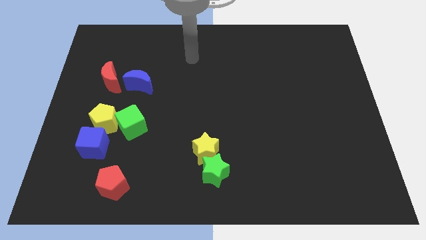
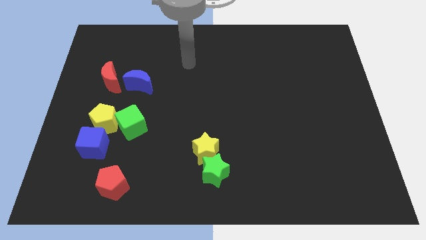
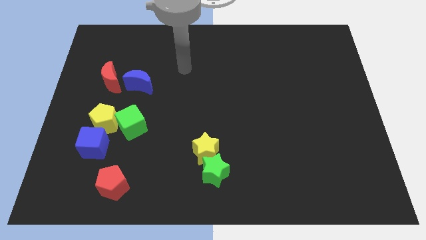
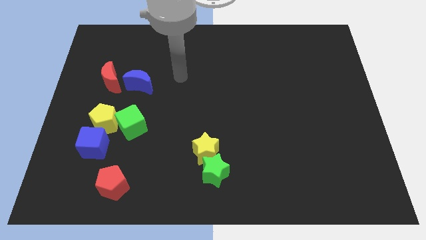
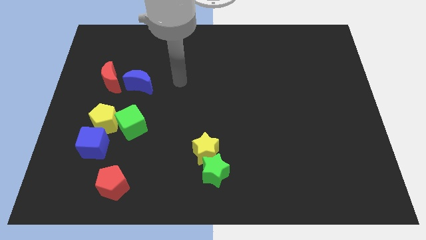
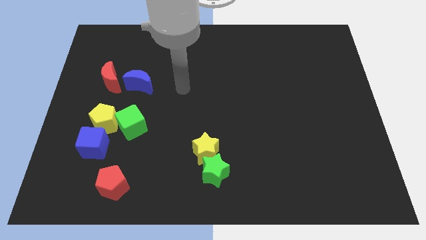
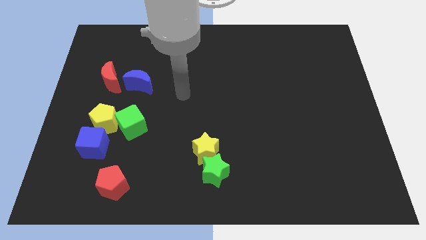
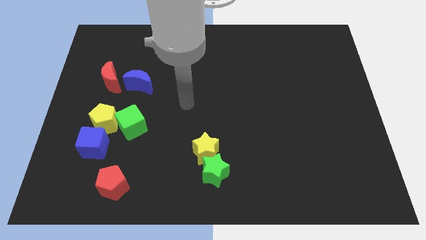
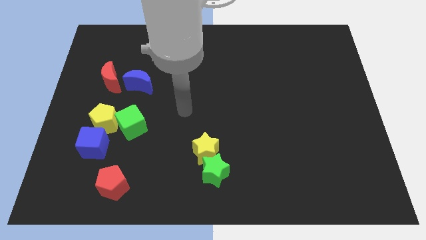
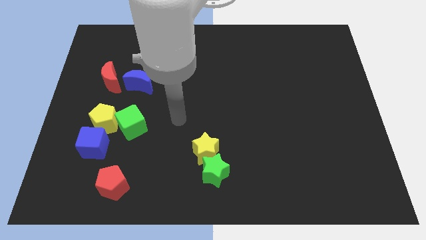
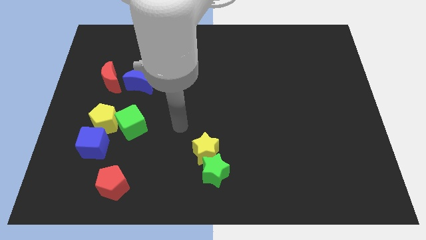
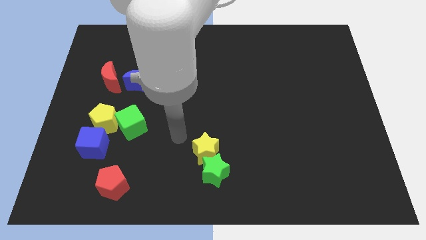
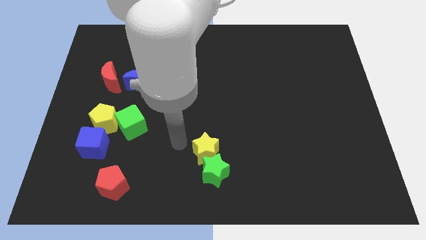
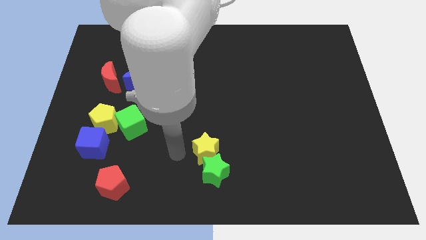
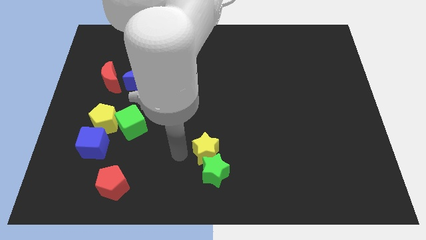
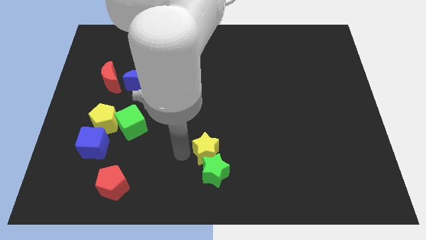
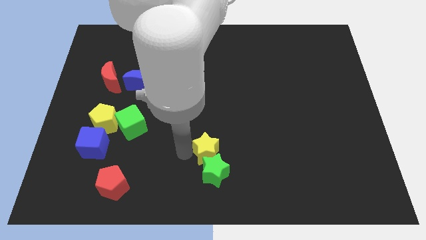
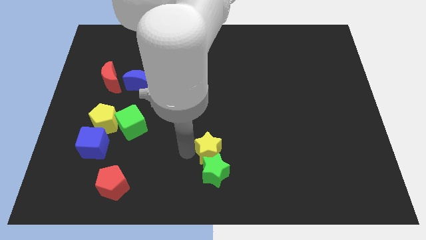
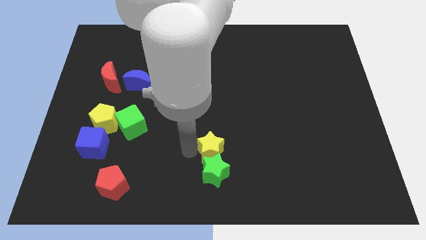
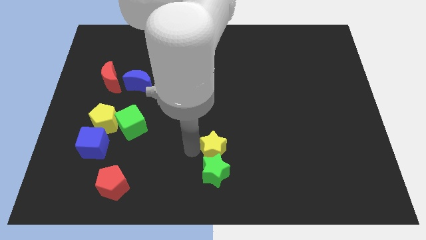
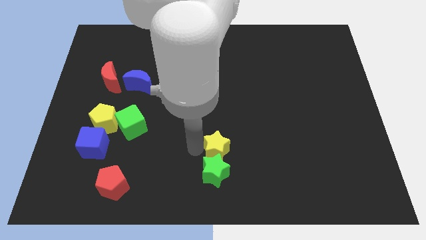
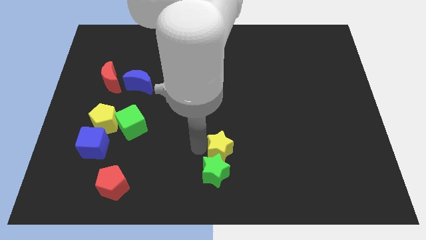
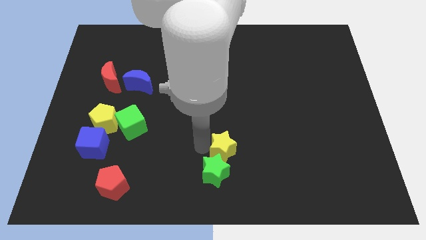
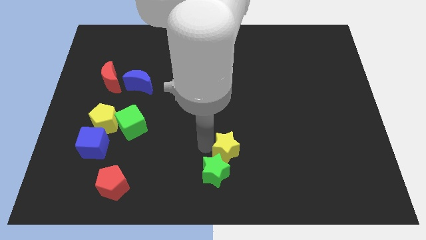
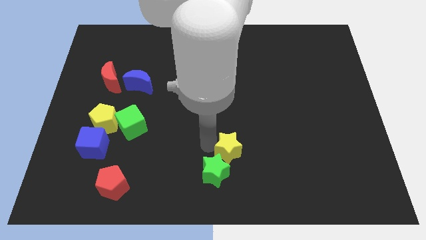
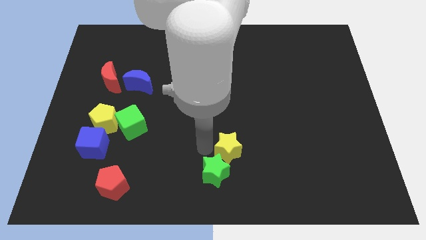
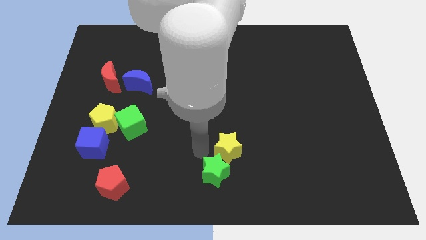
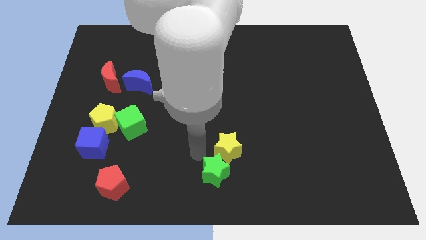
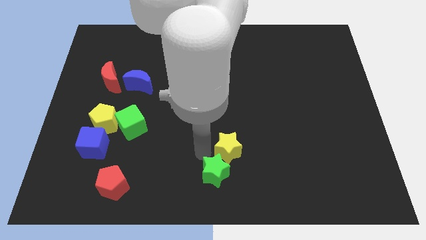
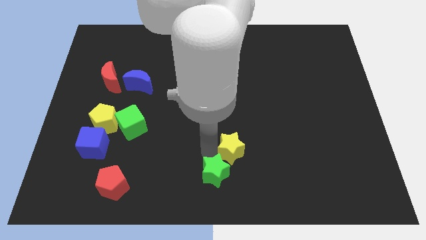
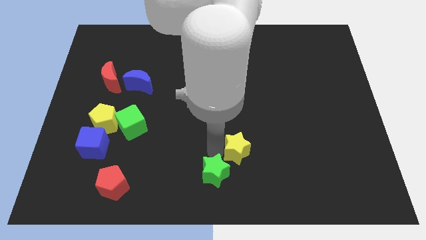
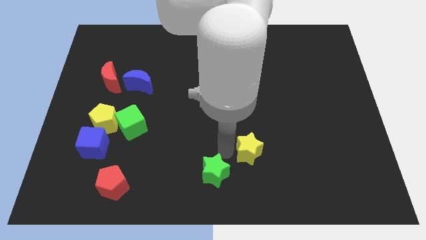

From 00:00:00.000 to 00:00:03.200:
push the yellow star slightly right

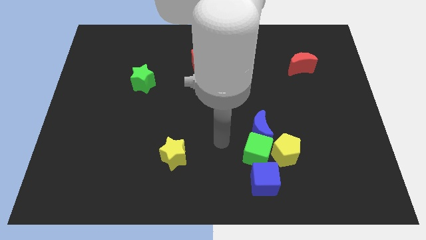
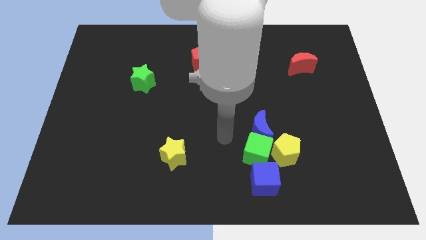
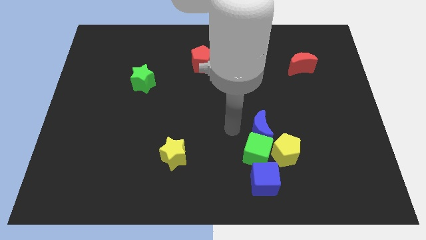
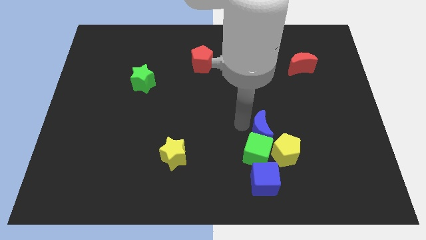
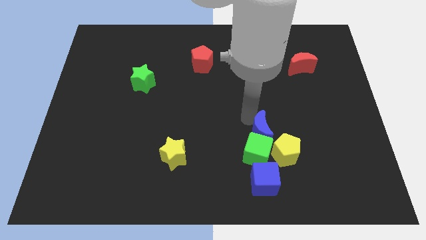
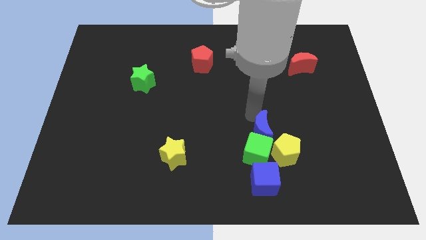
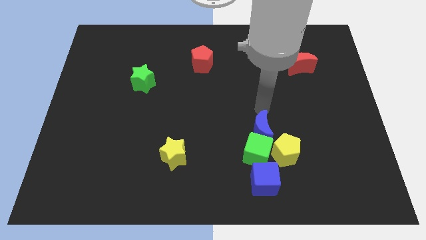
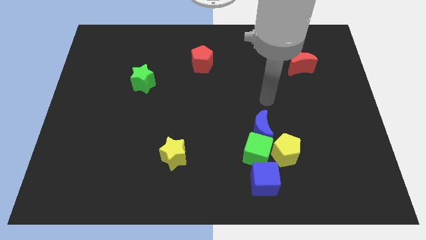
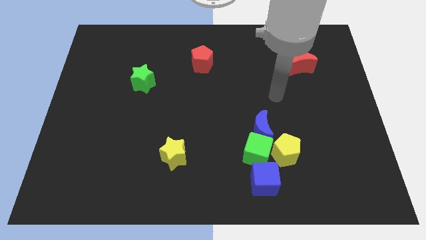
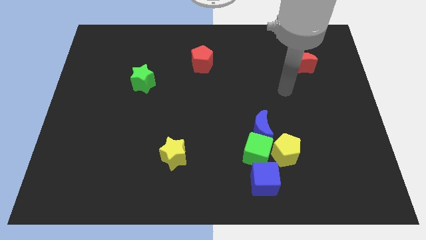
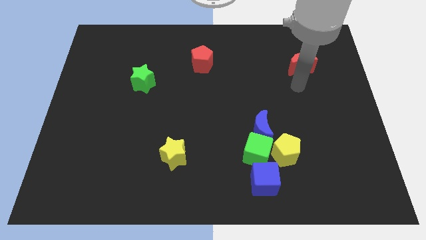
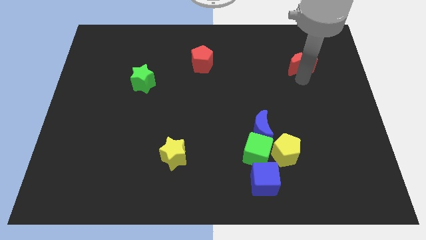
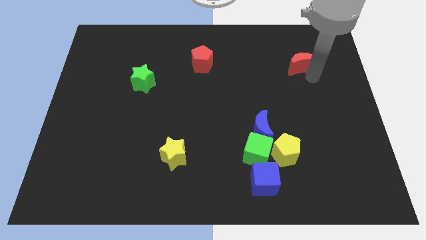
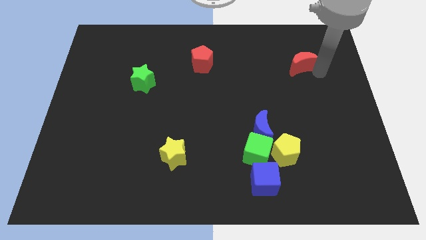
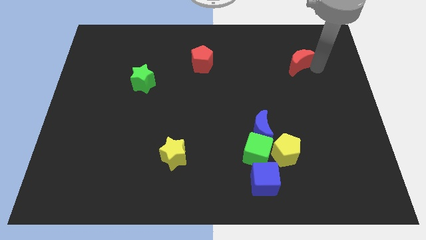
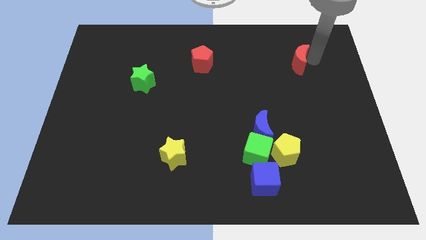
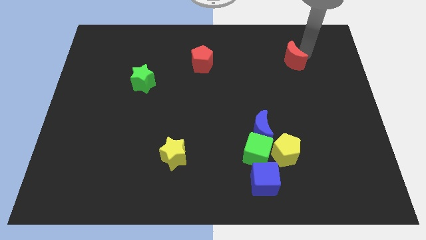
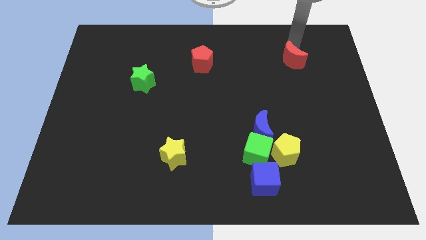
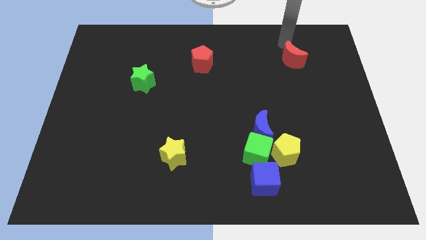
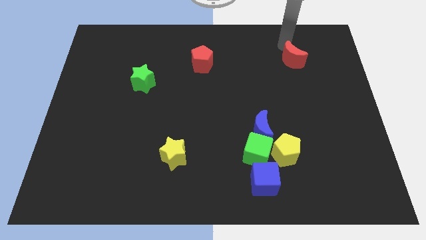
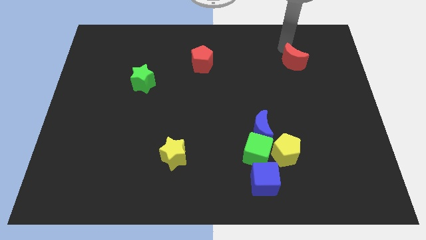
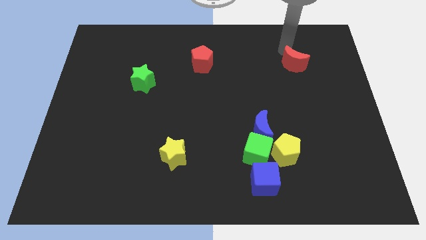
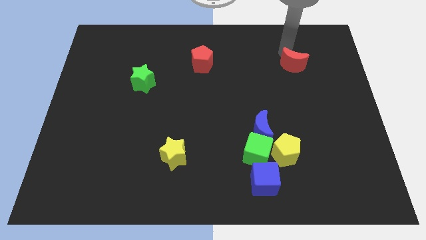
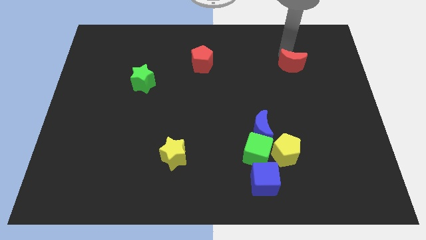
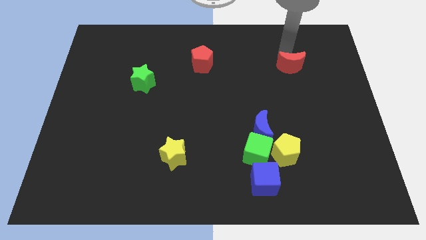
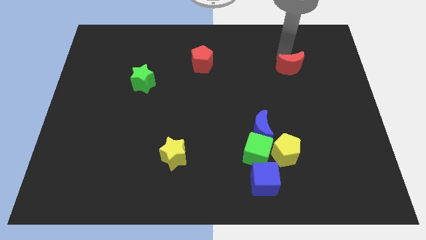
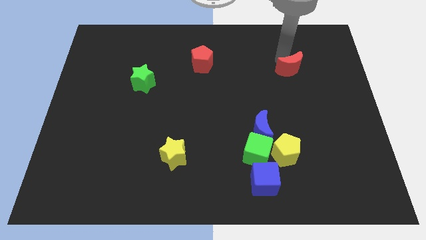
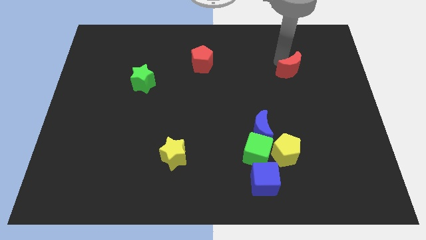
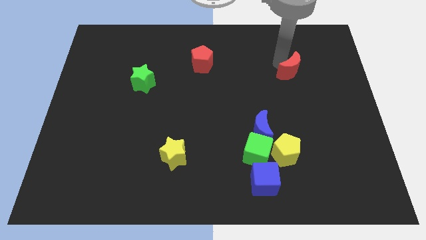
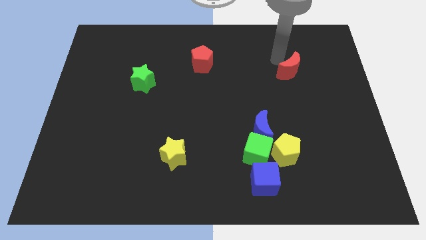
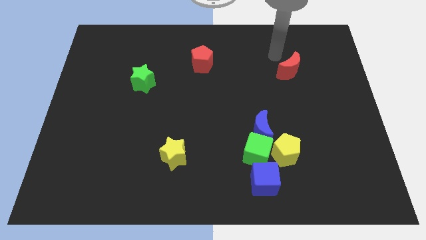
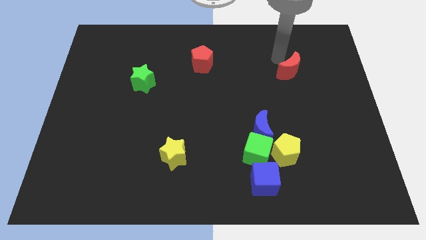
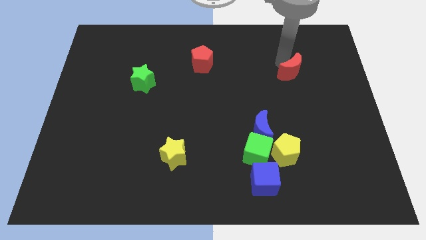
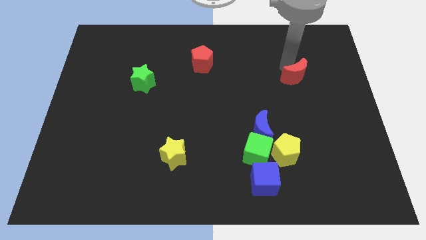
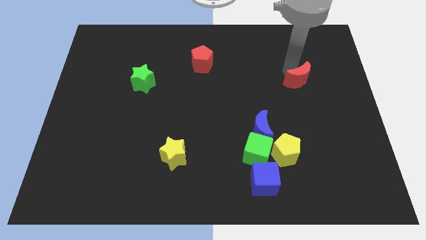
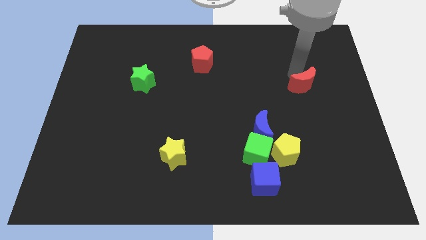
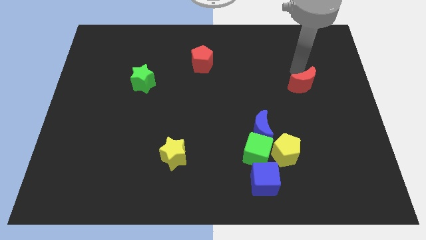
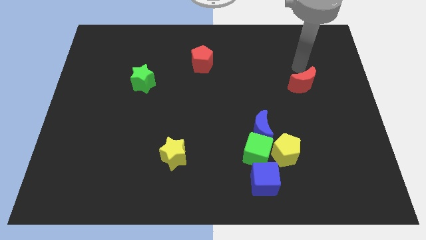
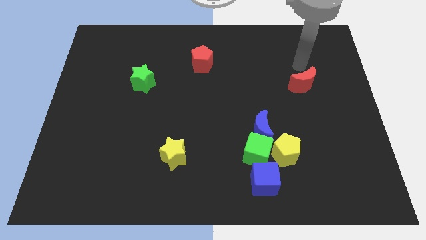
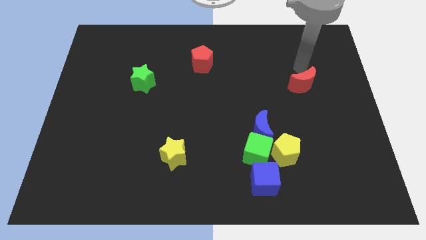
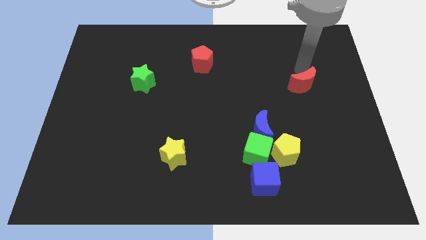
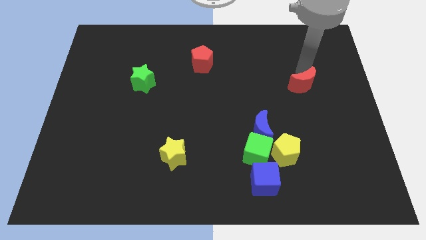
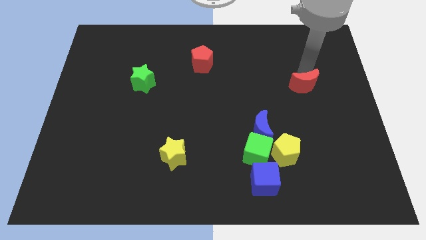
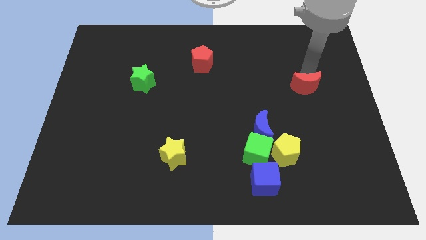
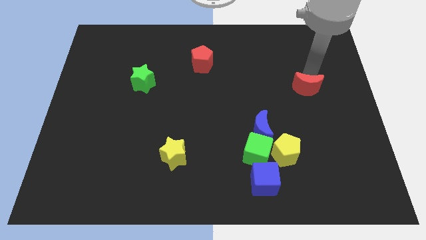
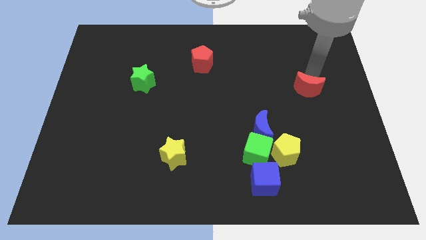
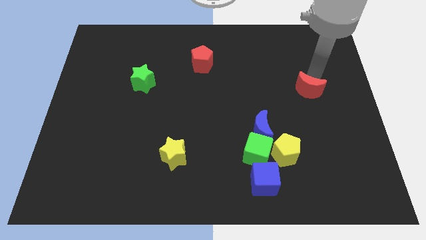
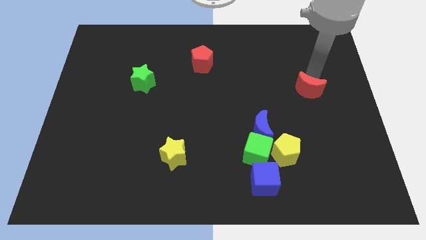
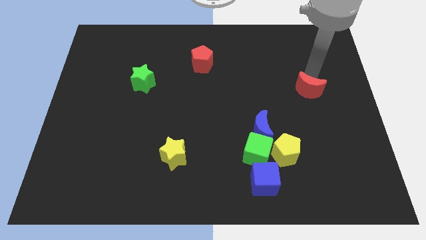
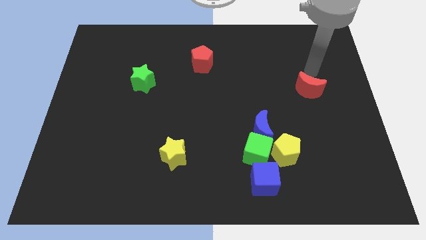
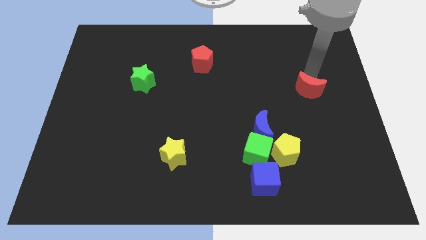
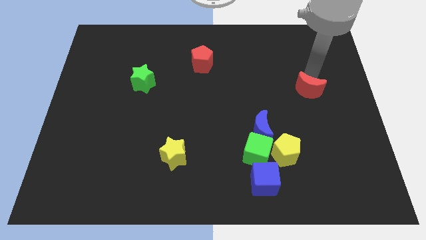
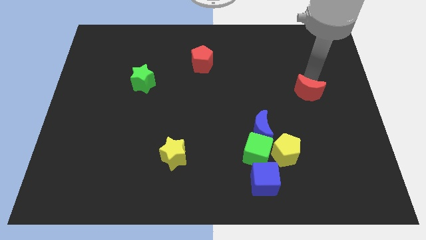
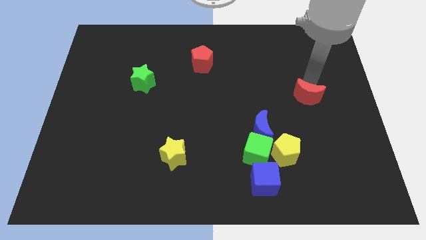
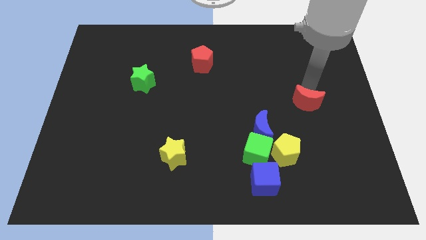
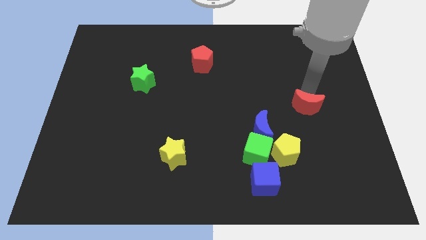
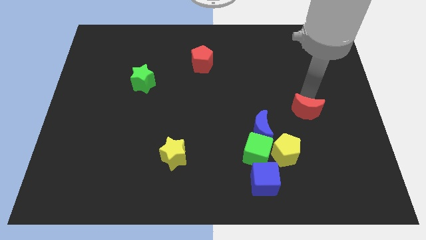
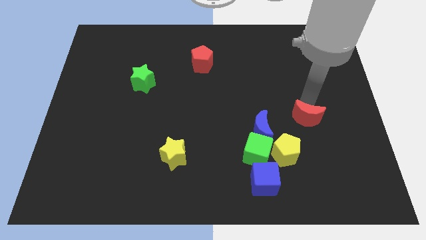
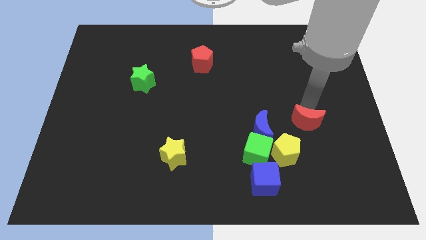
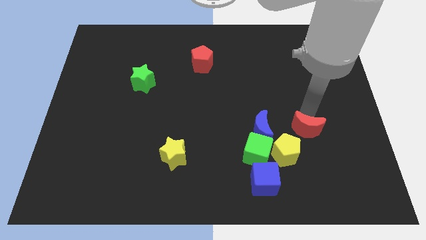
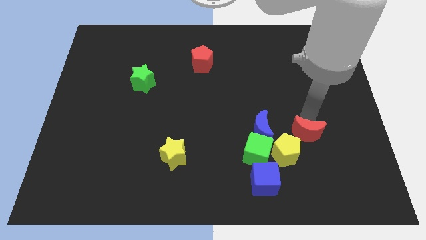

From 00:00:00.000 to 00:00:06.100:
move the red moon down
